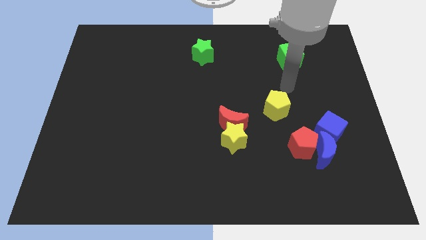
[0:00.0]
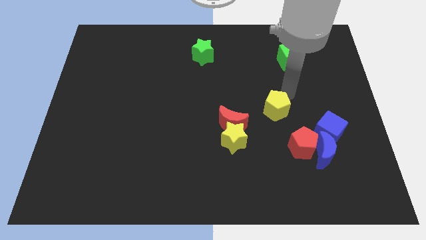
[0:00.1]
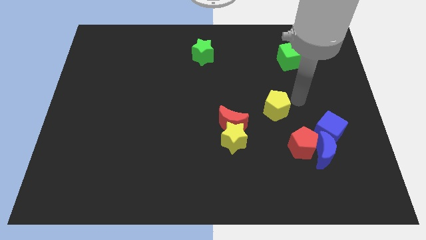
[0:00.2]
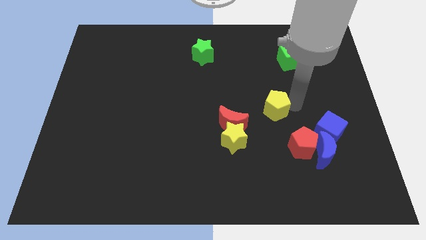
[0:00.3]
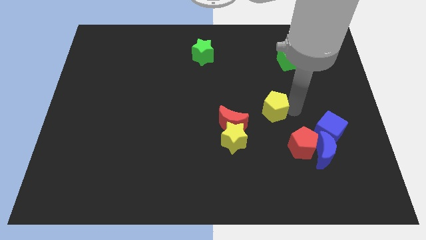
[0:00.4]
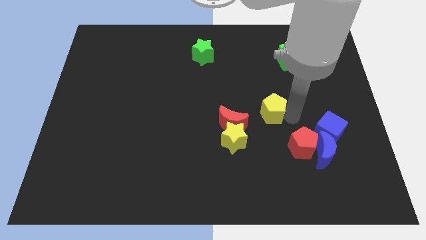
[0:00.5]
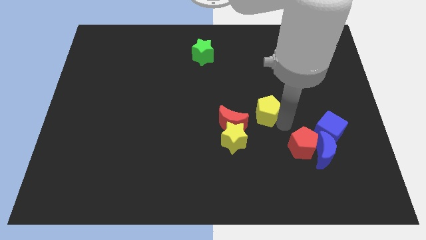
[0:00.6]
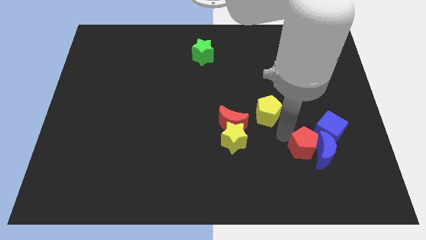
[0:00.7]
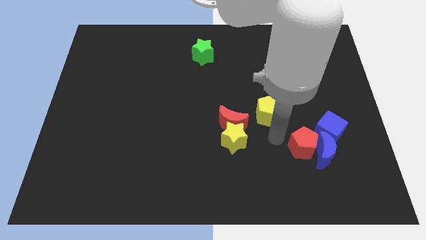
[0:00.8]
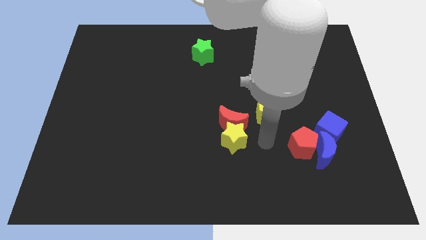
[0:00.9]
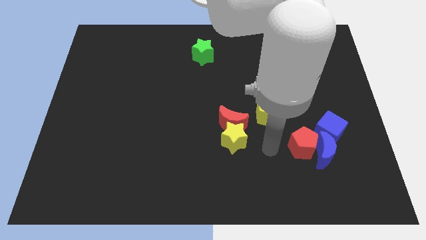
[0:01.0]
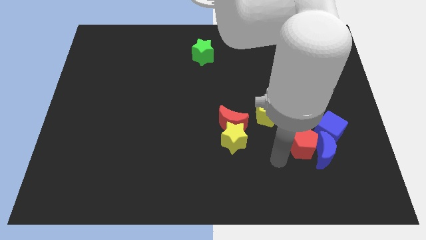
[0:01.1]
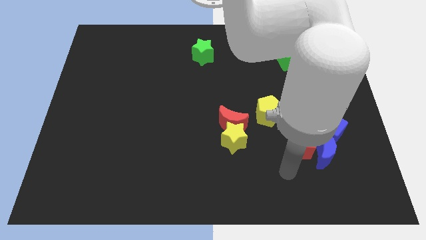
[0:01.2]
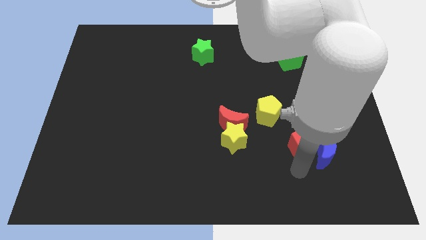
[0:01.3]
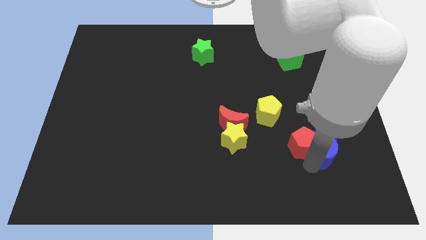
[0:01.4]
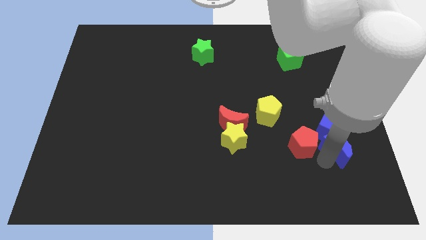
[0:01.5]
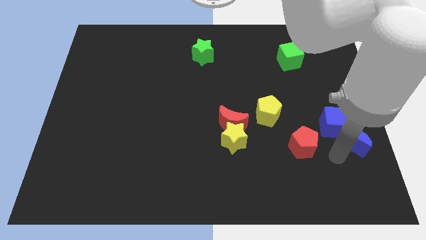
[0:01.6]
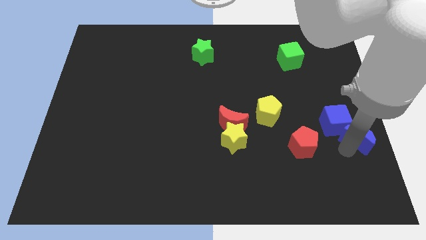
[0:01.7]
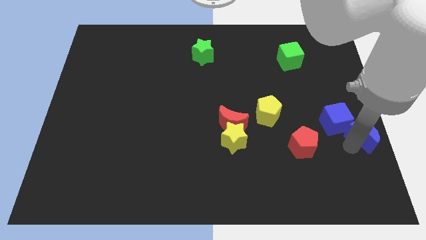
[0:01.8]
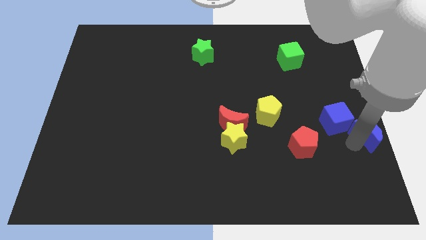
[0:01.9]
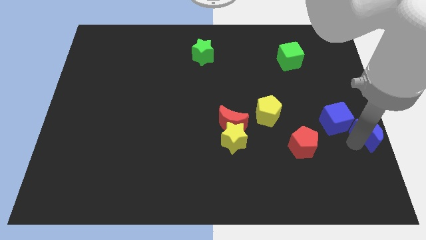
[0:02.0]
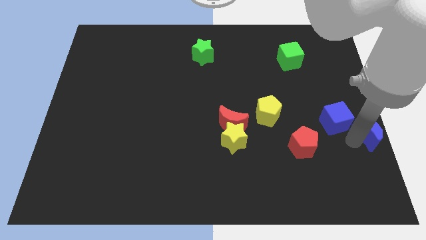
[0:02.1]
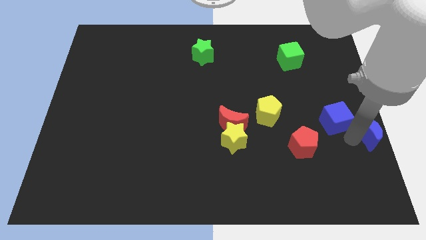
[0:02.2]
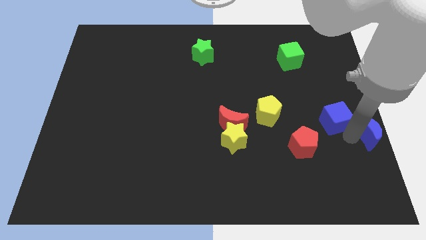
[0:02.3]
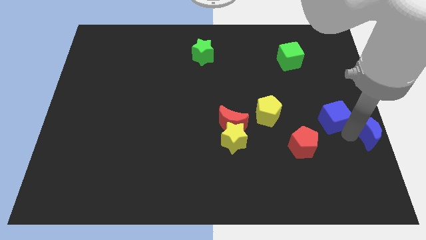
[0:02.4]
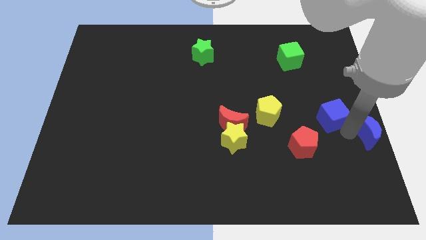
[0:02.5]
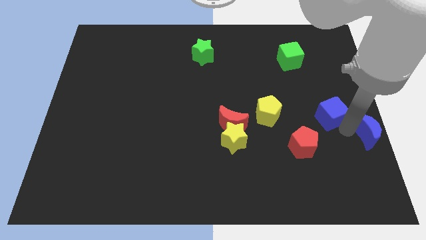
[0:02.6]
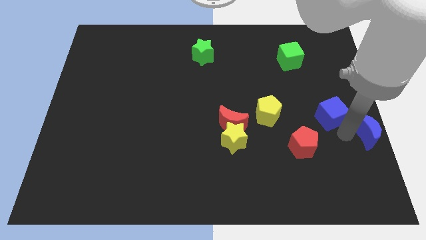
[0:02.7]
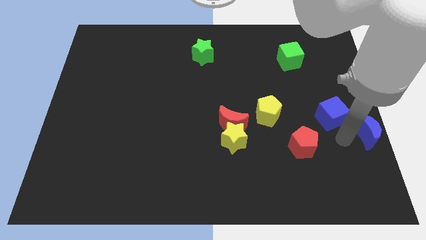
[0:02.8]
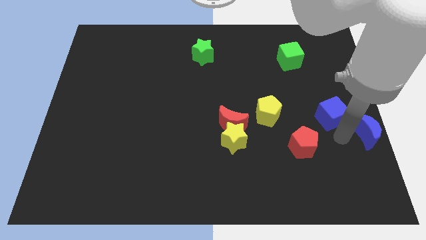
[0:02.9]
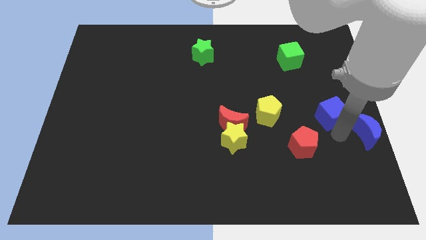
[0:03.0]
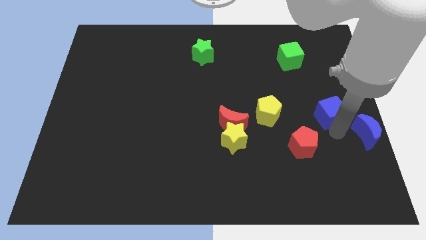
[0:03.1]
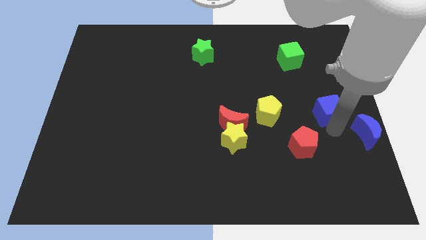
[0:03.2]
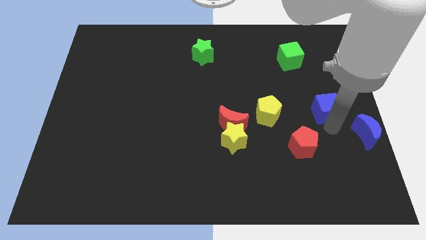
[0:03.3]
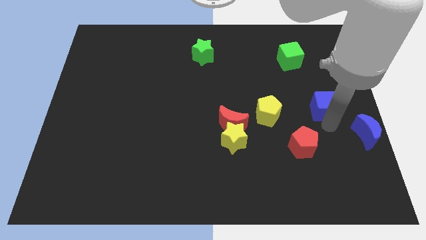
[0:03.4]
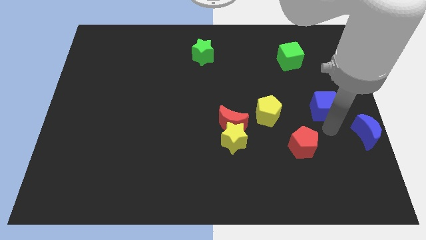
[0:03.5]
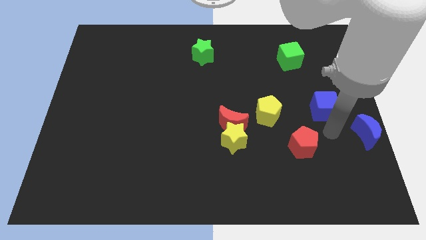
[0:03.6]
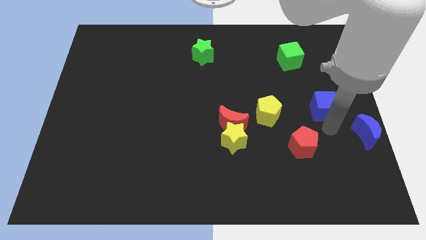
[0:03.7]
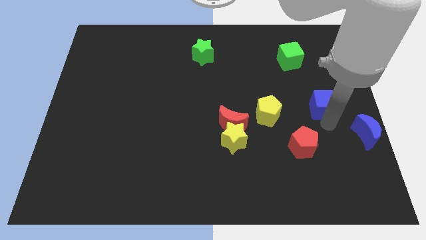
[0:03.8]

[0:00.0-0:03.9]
move the blue cube up somewhat

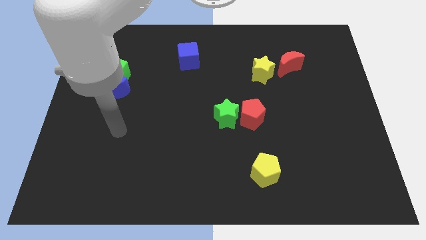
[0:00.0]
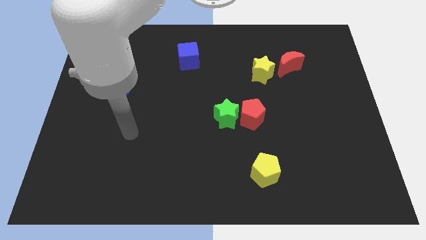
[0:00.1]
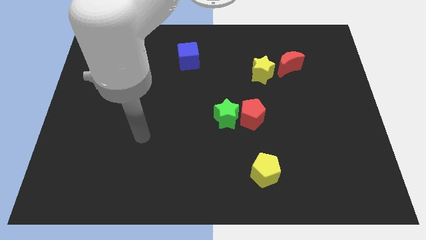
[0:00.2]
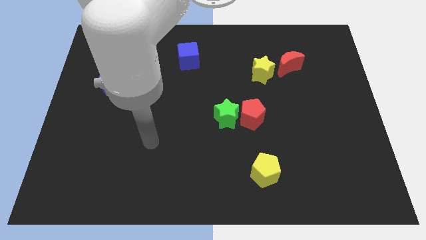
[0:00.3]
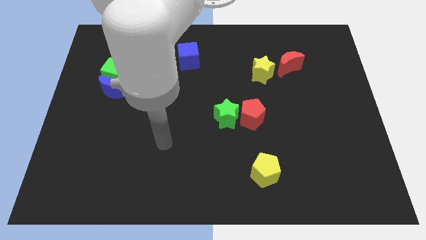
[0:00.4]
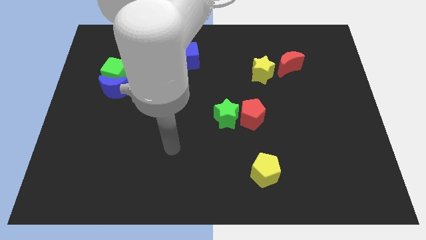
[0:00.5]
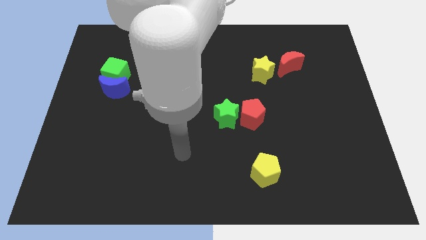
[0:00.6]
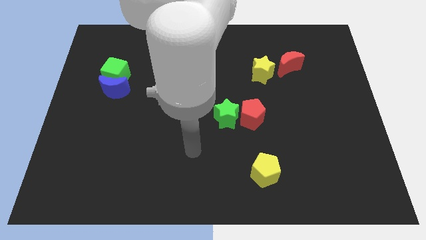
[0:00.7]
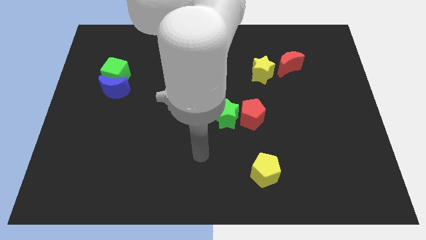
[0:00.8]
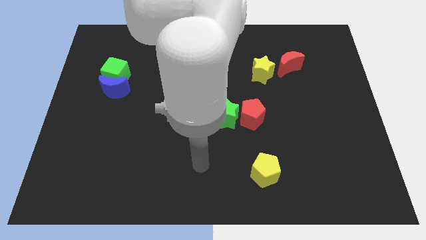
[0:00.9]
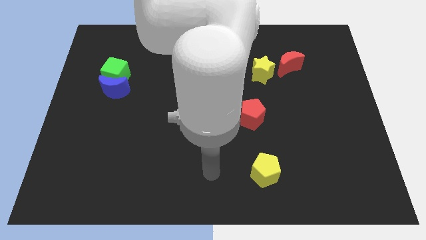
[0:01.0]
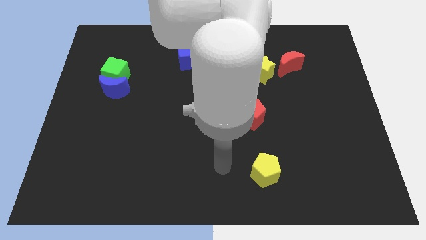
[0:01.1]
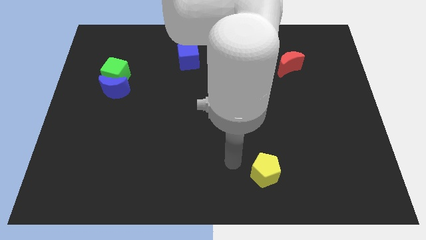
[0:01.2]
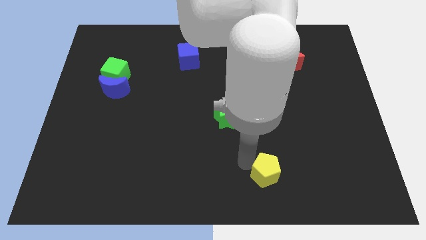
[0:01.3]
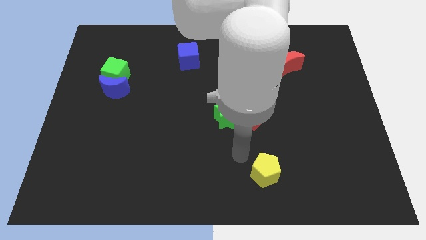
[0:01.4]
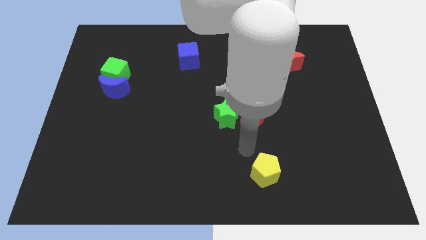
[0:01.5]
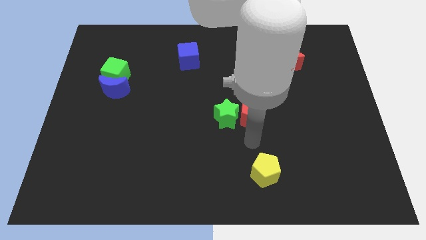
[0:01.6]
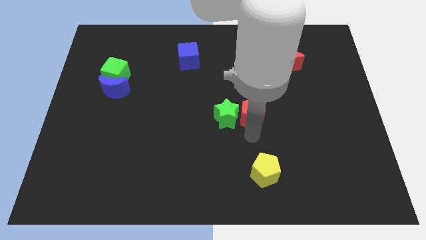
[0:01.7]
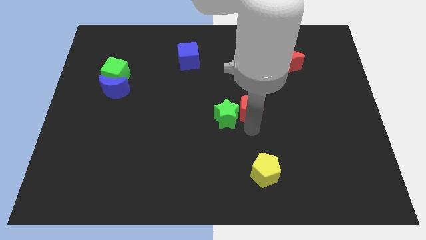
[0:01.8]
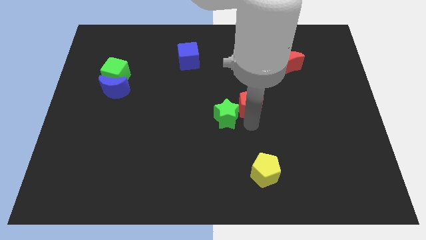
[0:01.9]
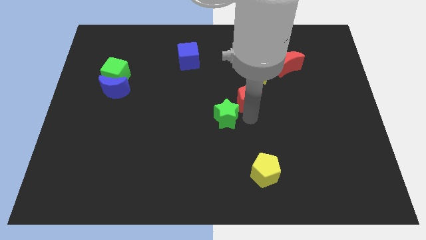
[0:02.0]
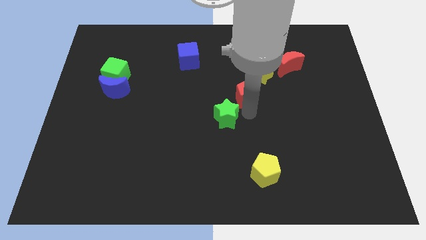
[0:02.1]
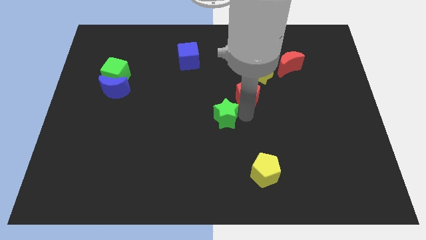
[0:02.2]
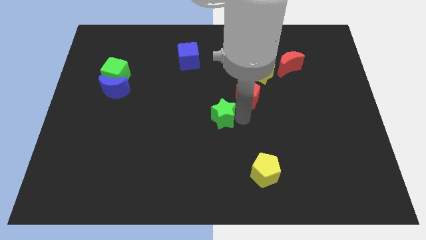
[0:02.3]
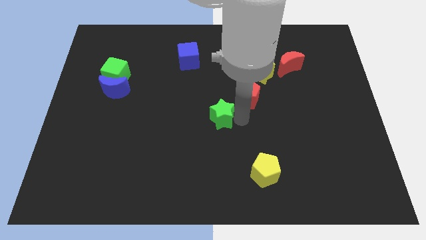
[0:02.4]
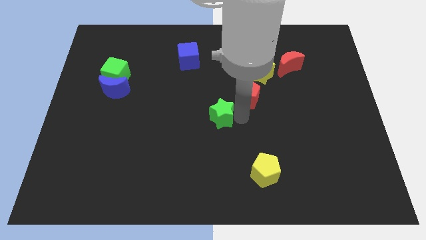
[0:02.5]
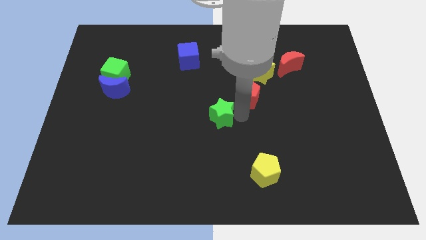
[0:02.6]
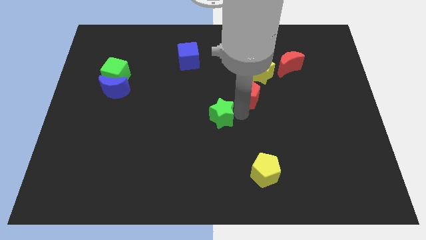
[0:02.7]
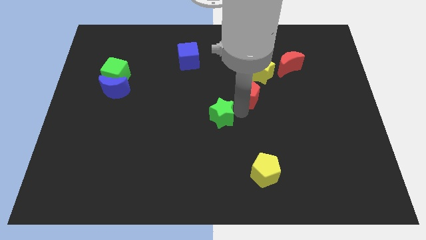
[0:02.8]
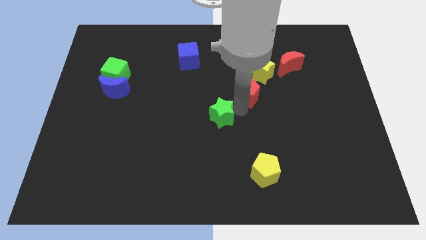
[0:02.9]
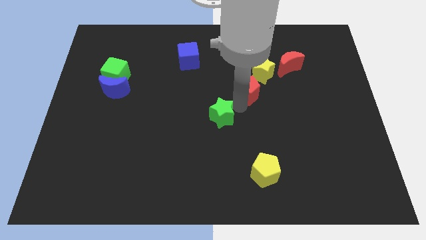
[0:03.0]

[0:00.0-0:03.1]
push the red pentagon a little bit up

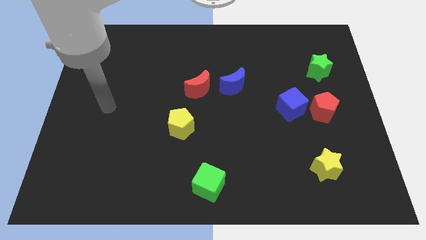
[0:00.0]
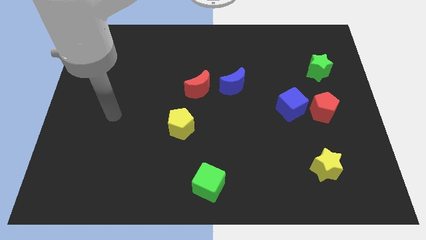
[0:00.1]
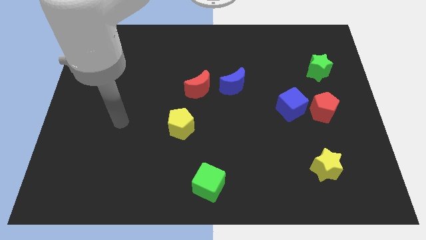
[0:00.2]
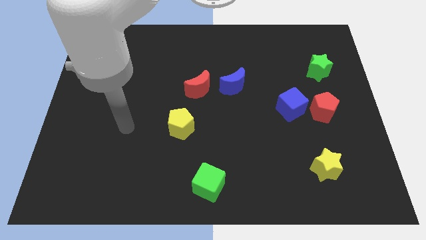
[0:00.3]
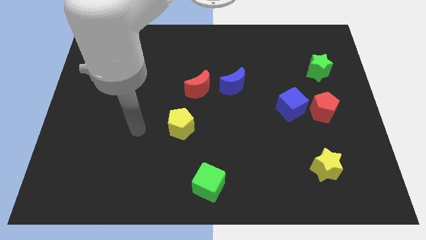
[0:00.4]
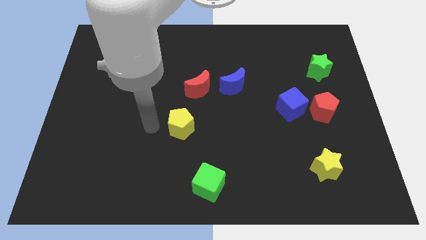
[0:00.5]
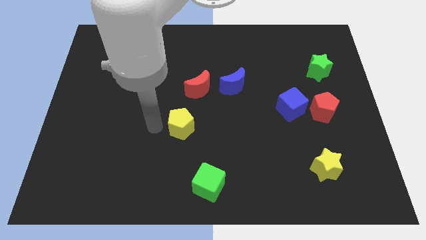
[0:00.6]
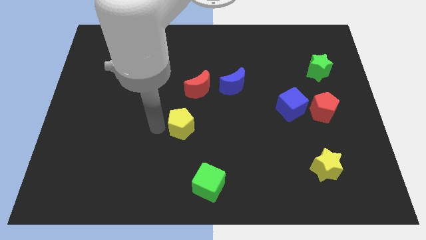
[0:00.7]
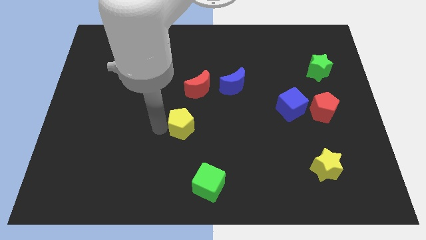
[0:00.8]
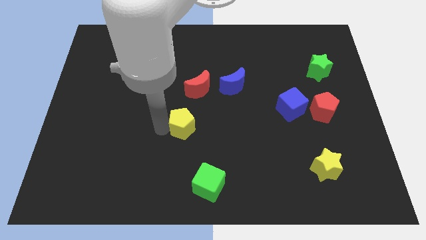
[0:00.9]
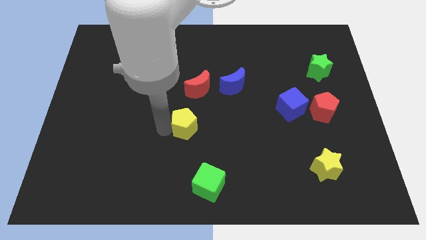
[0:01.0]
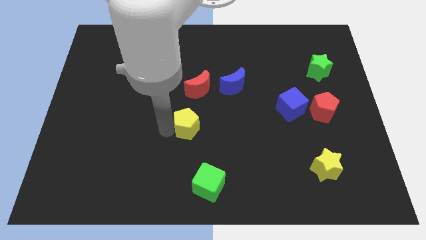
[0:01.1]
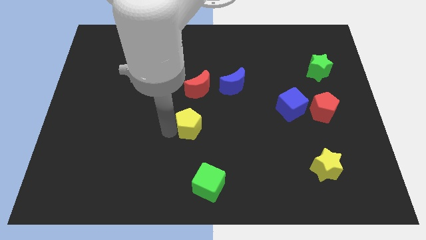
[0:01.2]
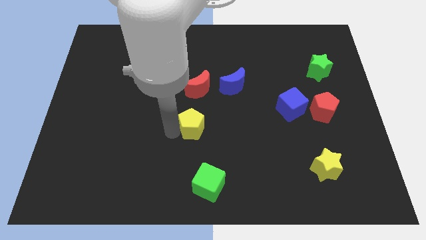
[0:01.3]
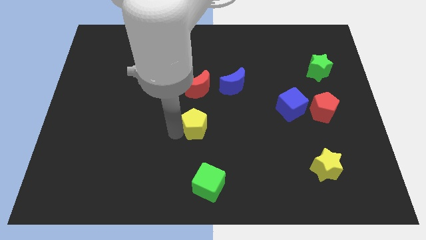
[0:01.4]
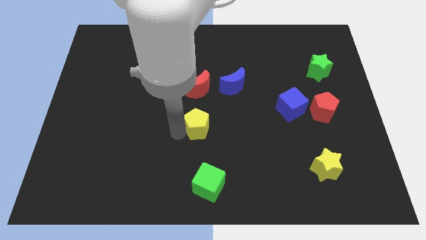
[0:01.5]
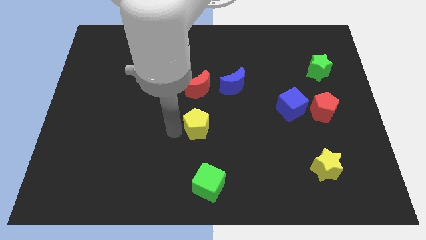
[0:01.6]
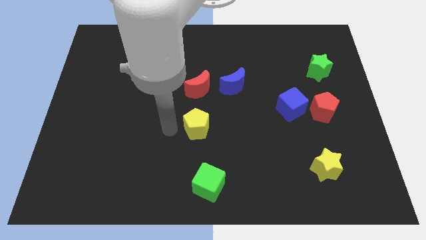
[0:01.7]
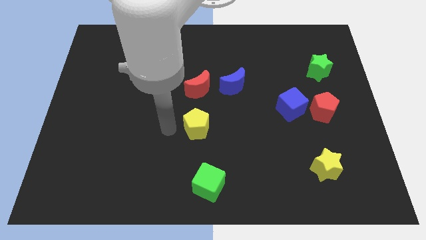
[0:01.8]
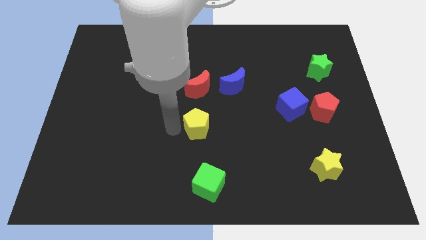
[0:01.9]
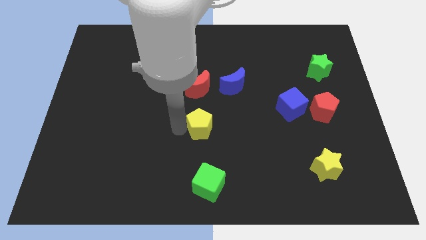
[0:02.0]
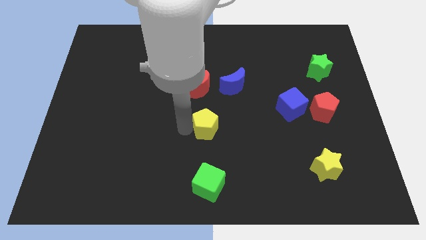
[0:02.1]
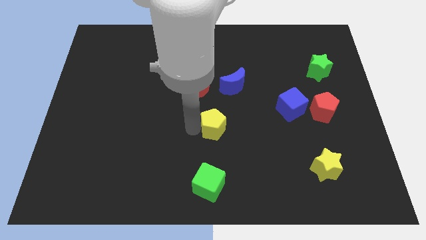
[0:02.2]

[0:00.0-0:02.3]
slightly slide the yellow pentagon to the right
